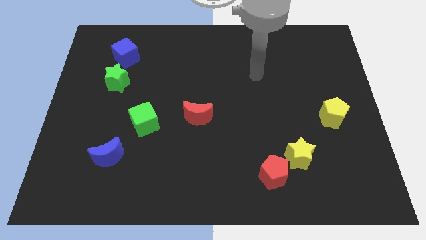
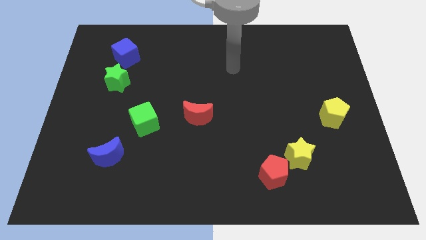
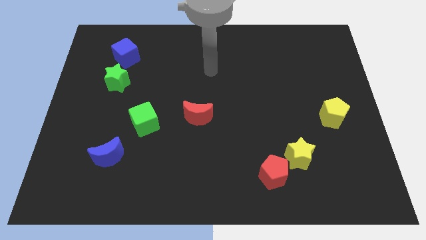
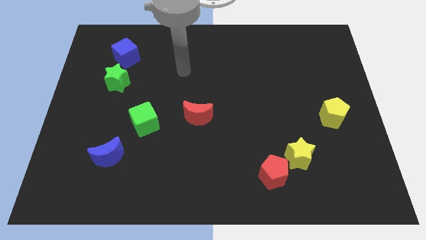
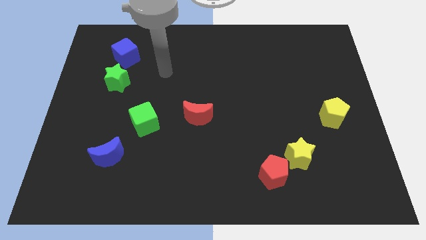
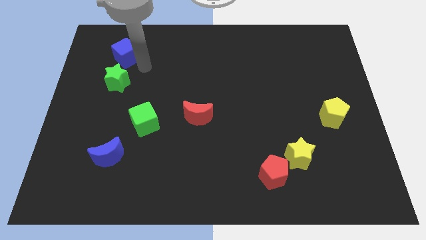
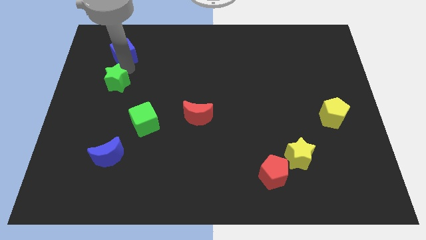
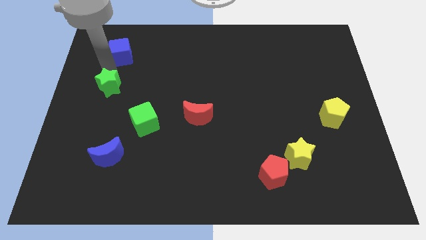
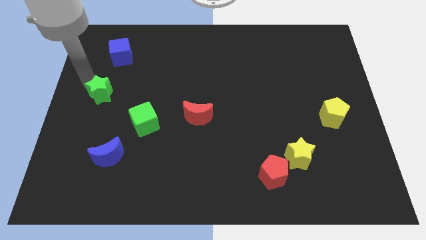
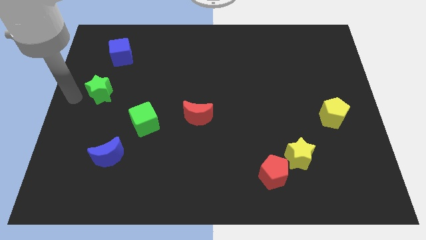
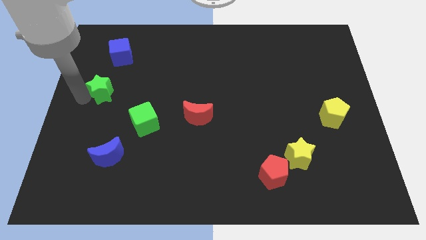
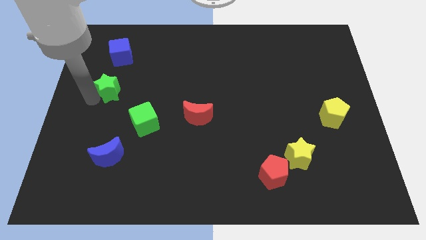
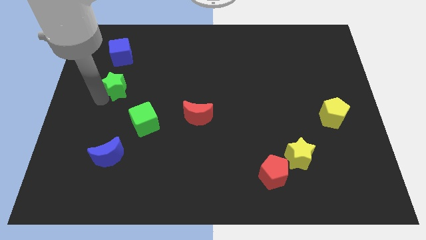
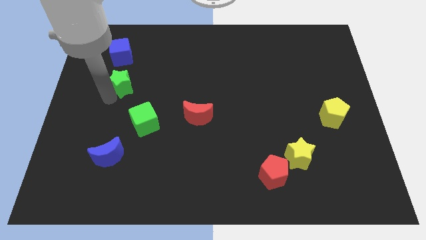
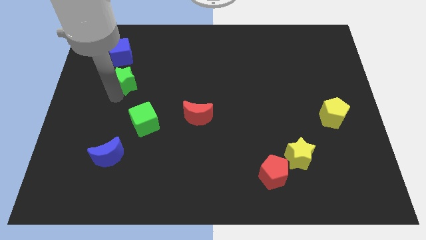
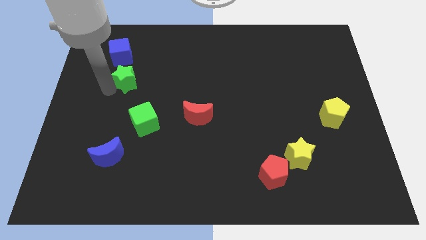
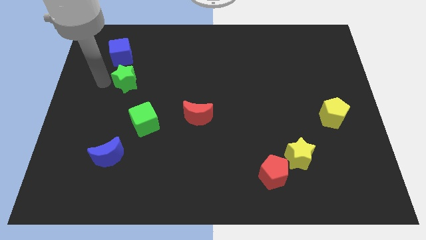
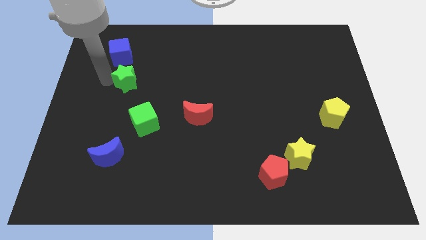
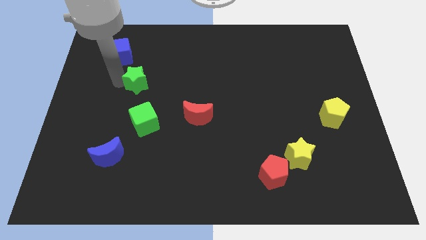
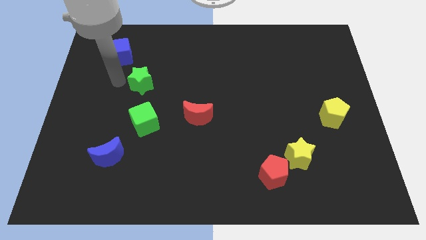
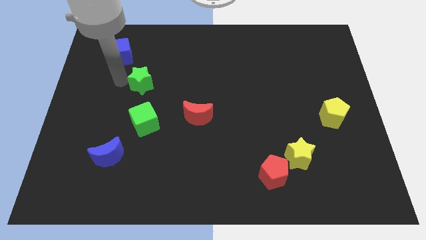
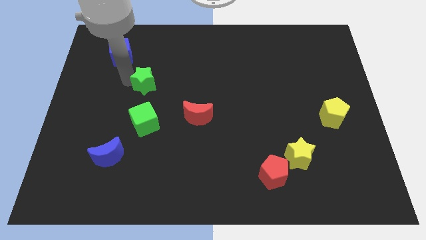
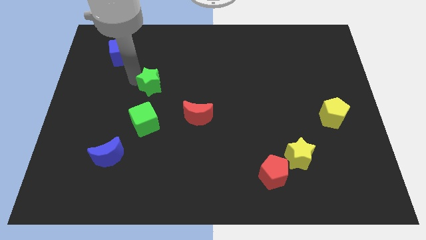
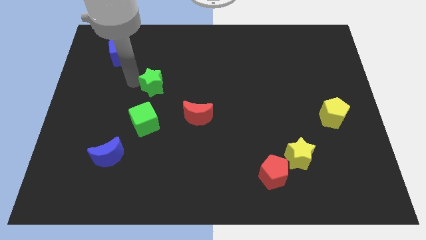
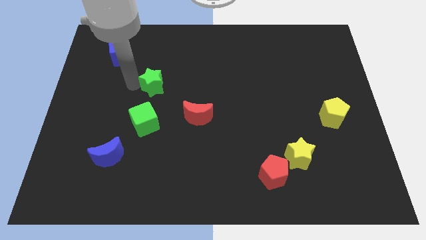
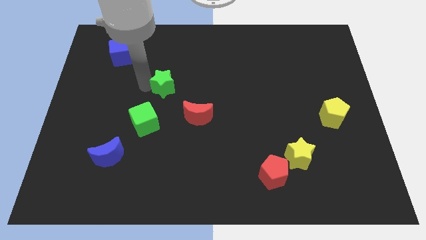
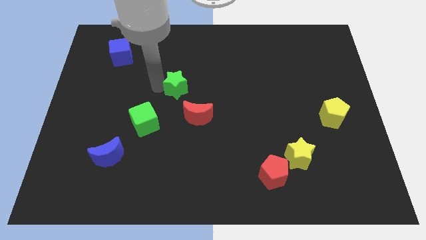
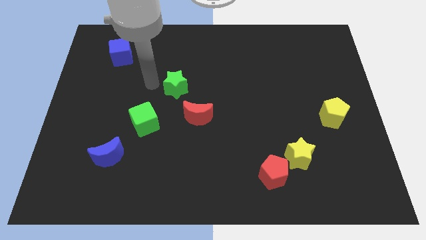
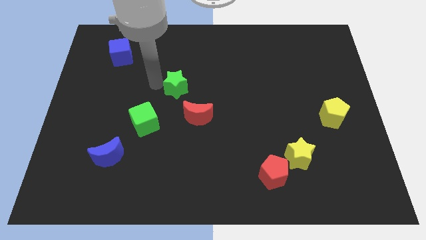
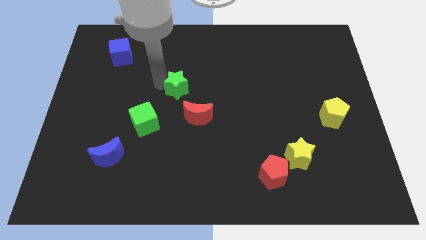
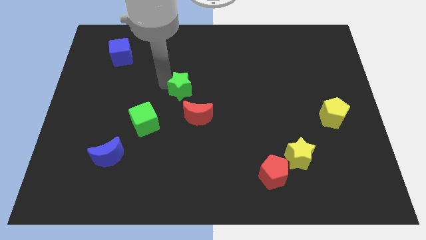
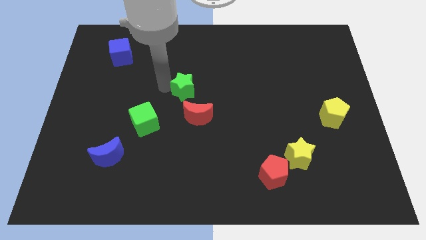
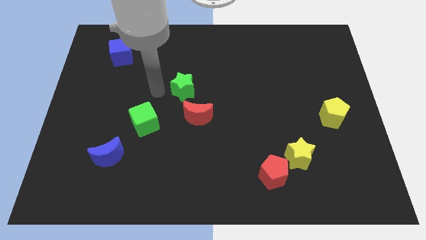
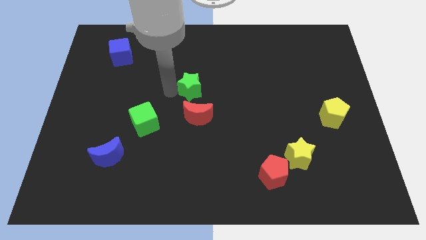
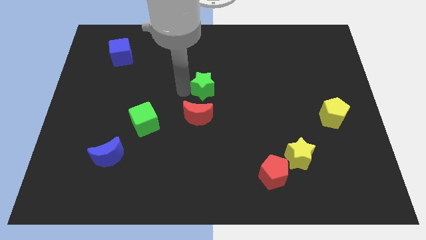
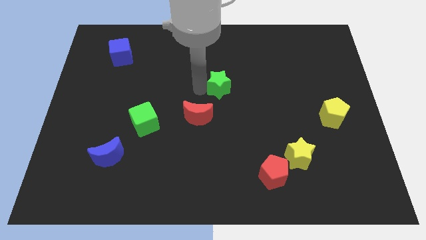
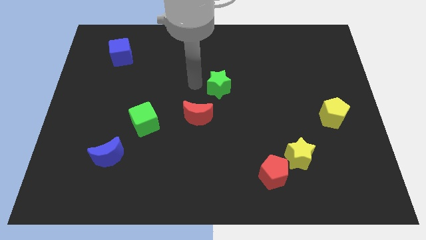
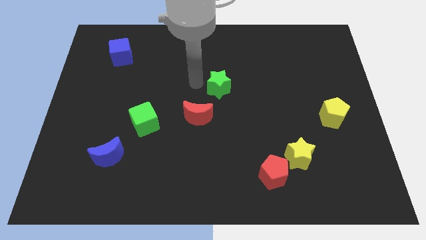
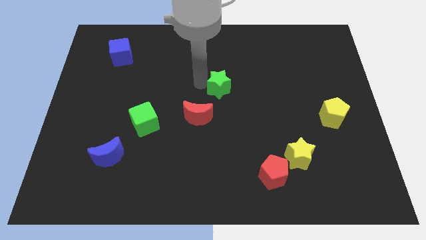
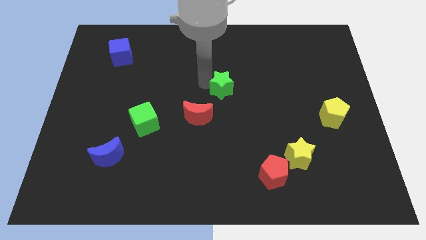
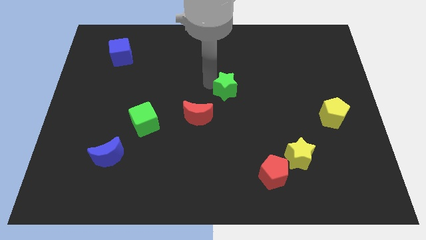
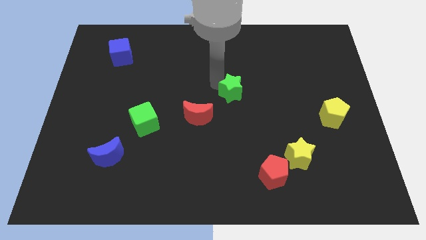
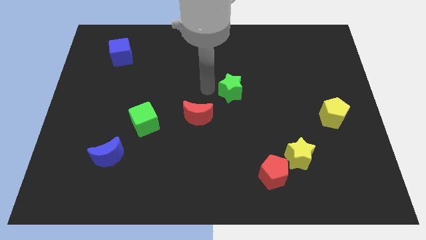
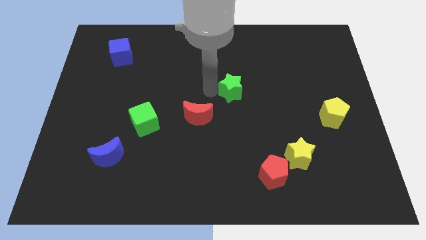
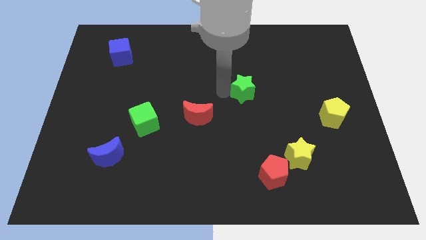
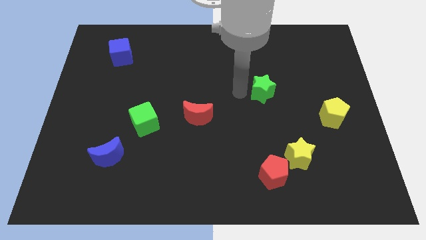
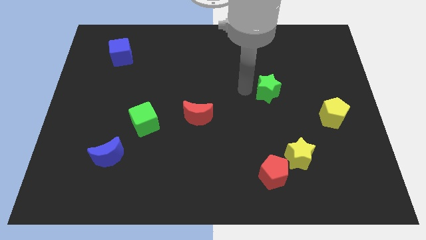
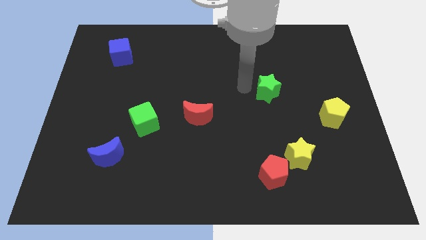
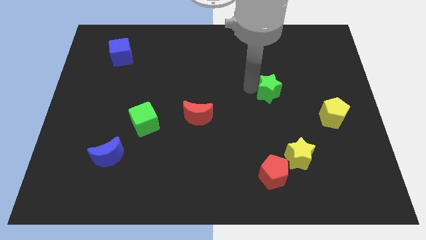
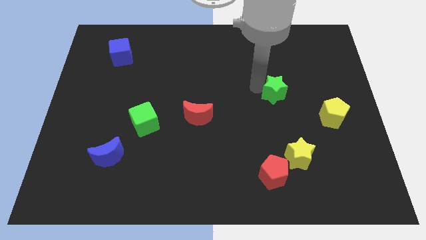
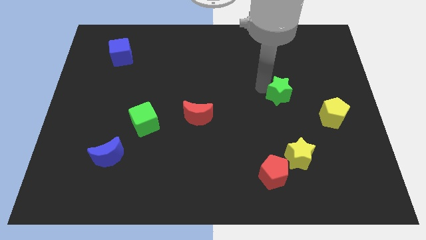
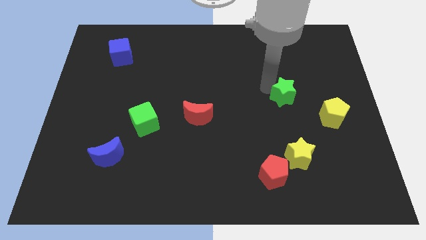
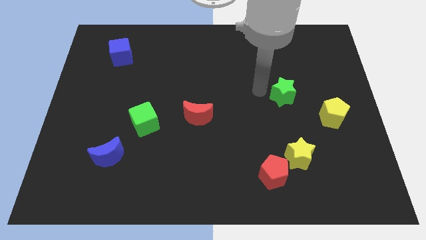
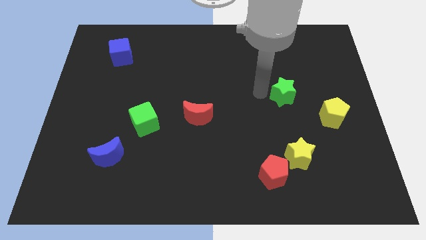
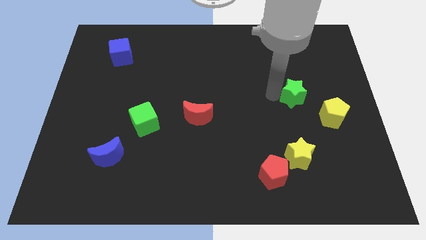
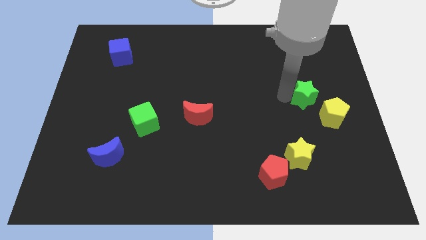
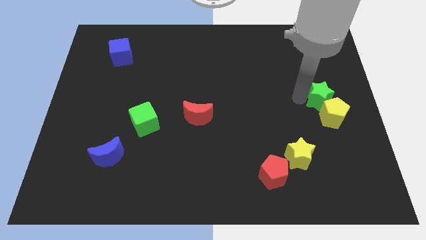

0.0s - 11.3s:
push the green star to the center right

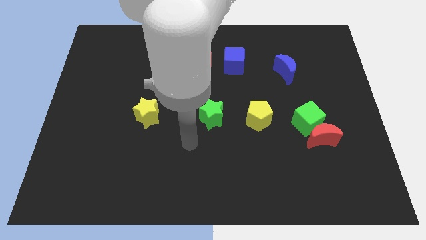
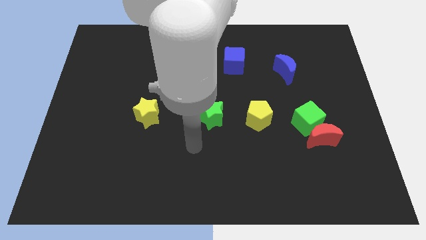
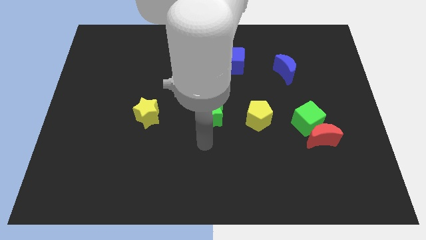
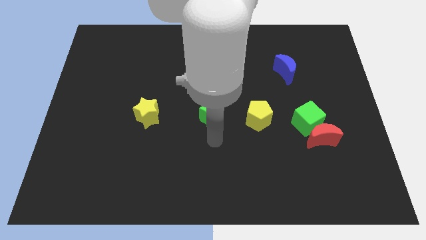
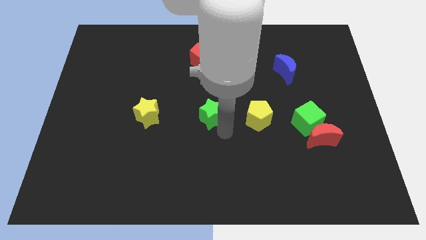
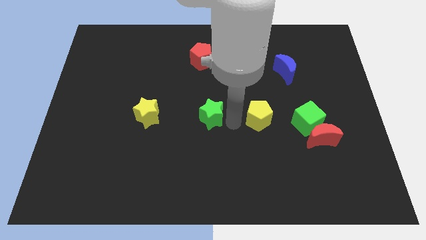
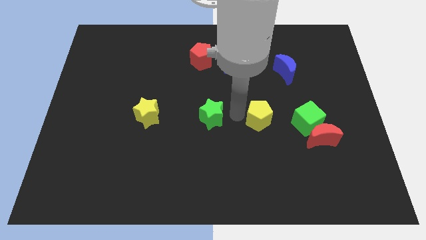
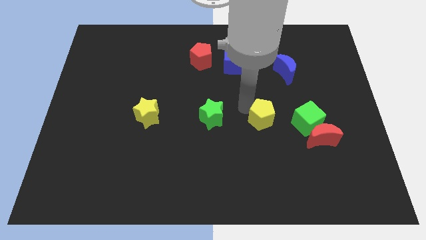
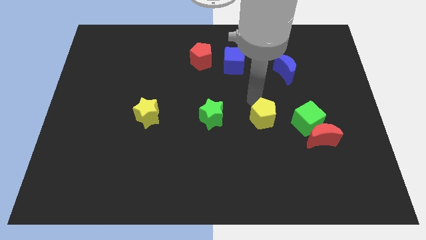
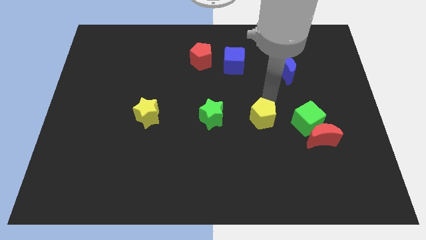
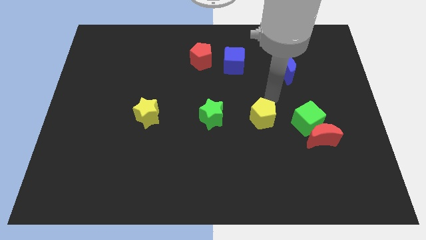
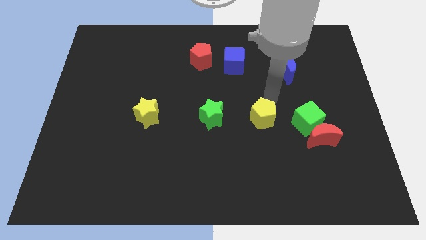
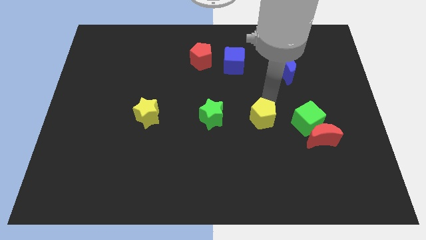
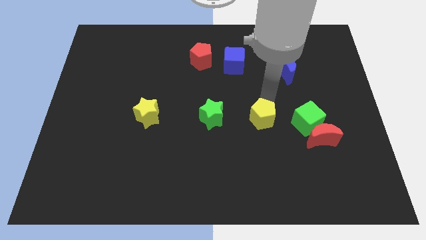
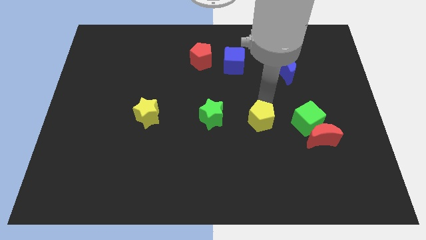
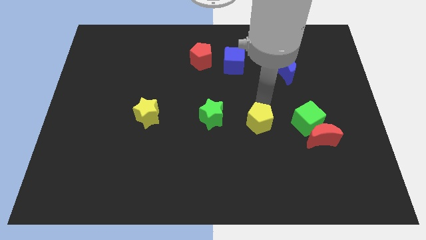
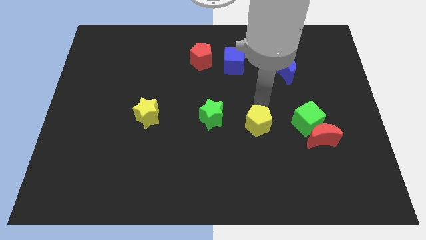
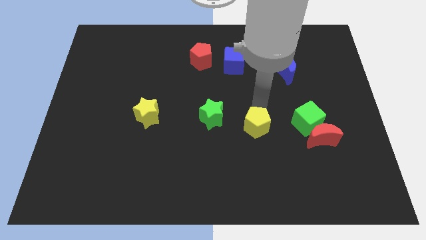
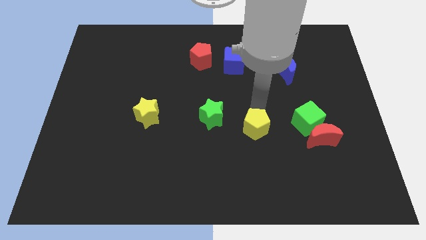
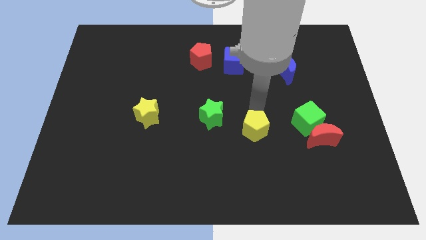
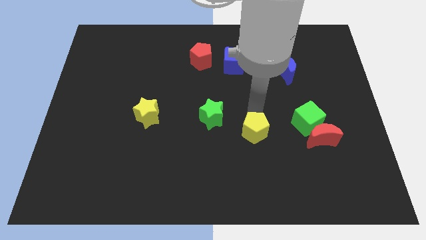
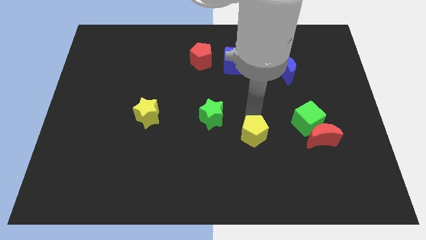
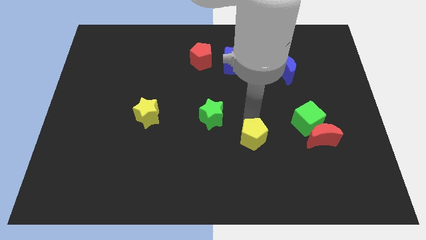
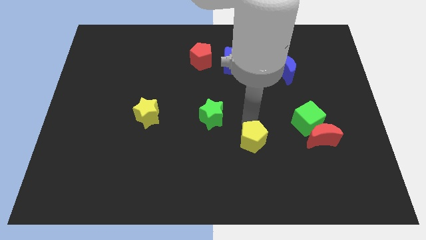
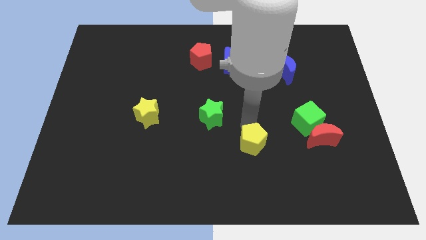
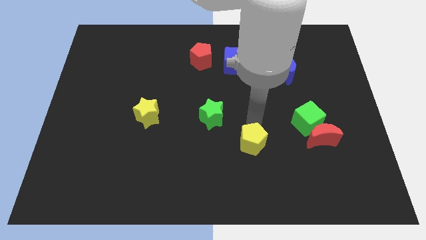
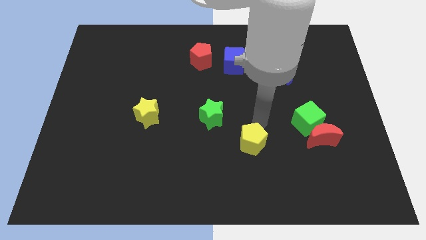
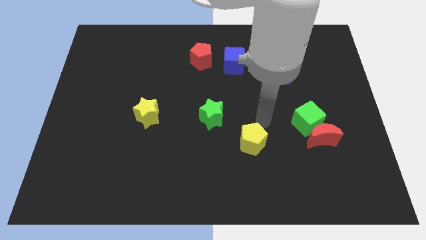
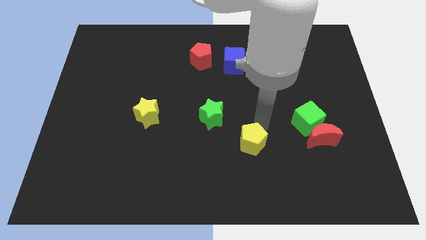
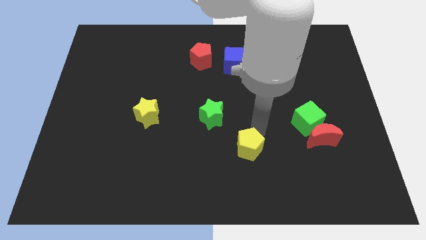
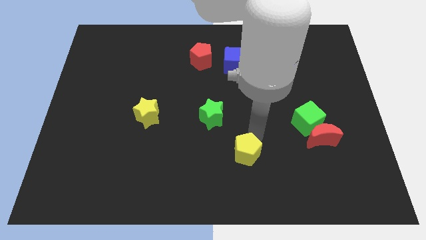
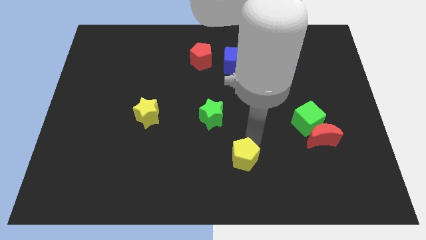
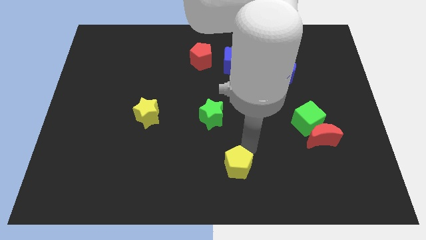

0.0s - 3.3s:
push the yellow pentagon to the bottom
